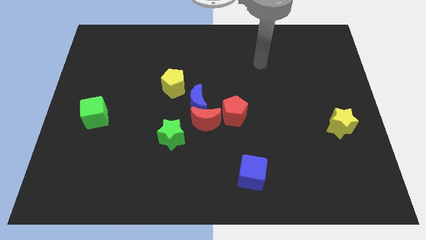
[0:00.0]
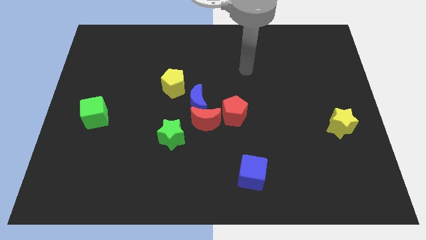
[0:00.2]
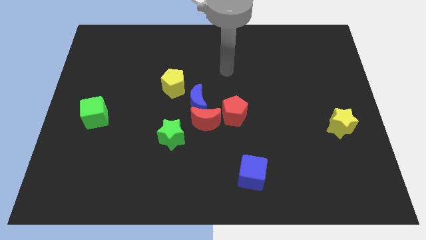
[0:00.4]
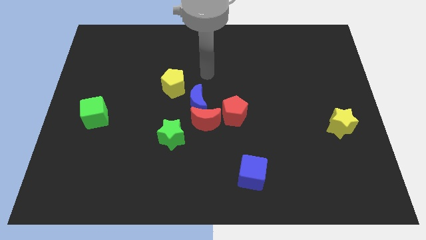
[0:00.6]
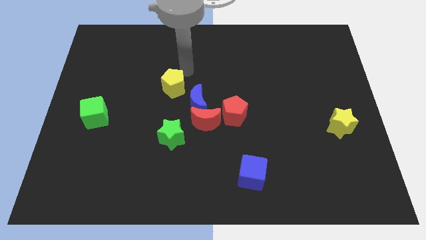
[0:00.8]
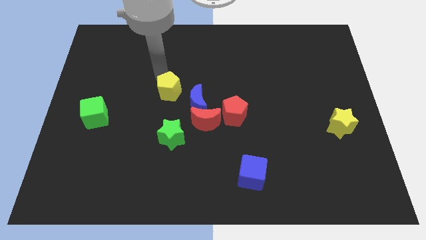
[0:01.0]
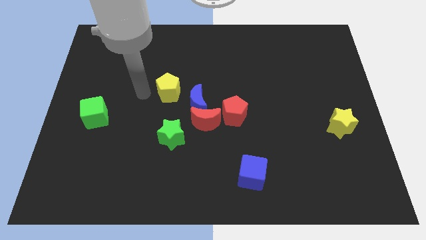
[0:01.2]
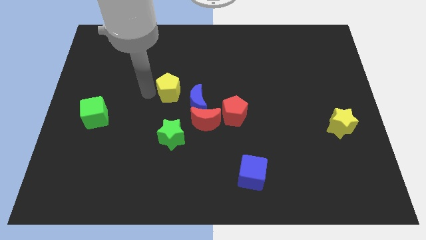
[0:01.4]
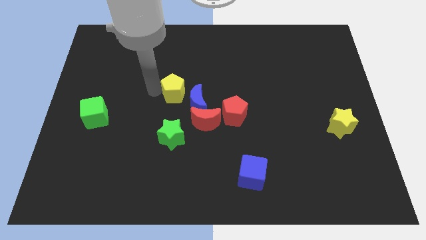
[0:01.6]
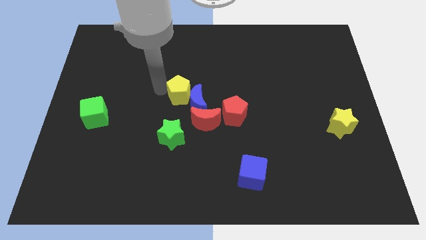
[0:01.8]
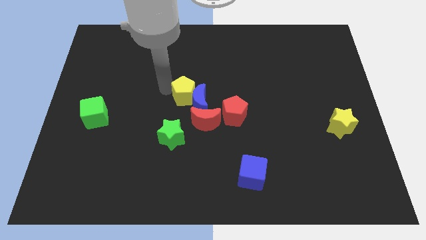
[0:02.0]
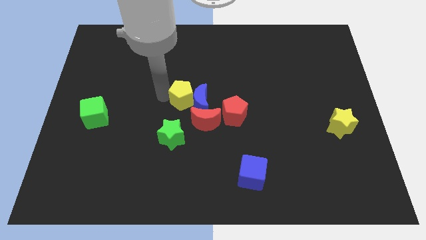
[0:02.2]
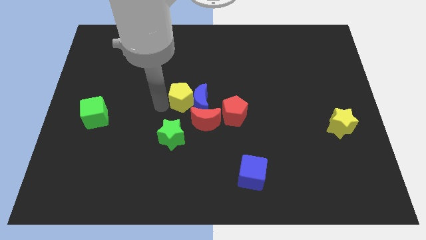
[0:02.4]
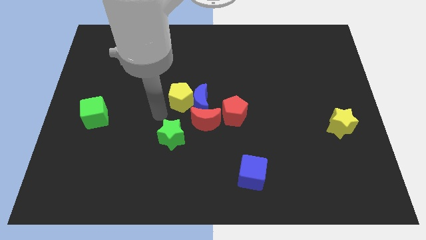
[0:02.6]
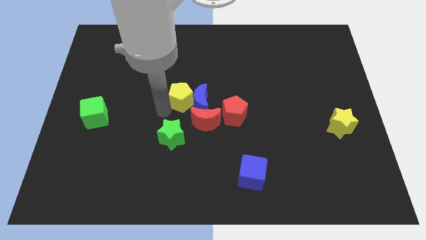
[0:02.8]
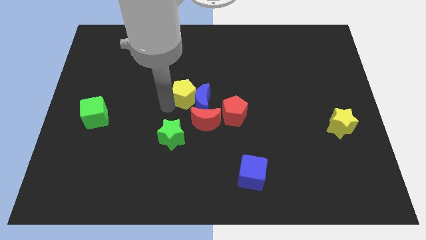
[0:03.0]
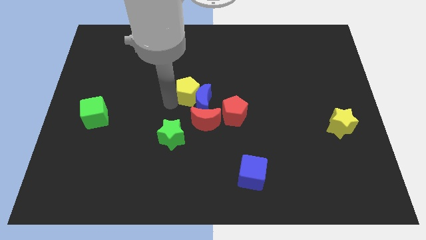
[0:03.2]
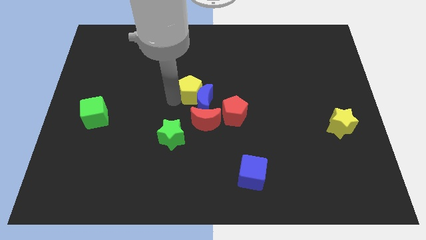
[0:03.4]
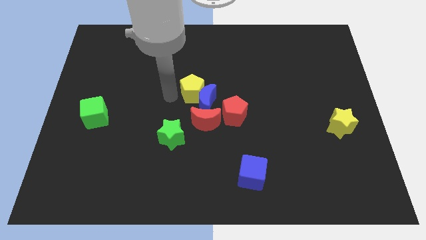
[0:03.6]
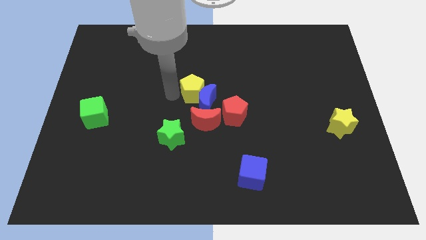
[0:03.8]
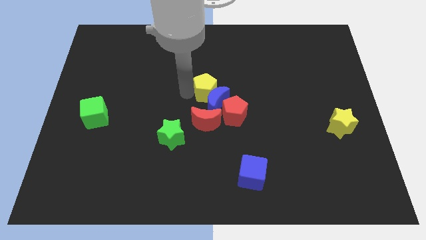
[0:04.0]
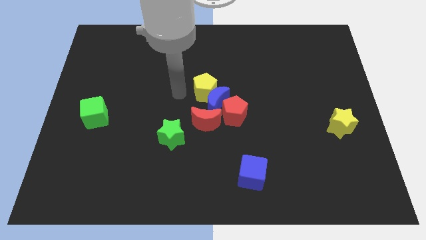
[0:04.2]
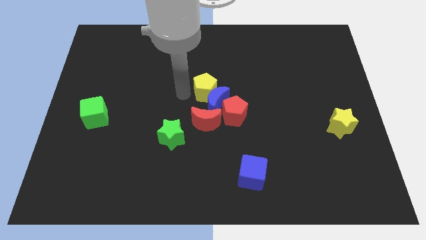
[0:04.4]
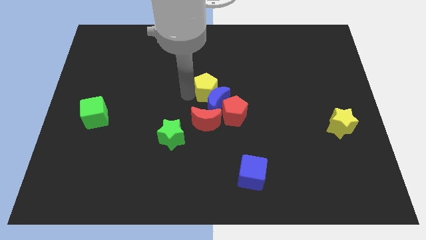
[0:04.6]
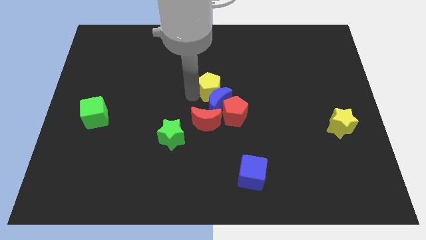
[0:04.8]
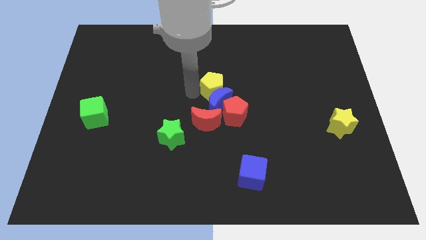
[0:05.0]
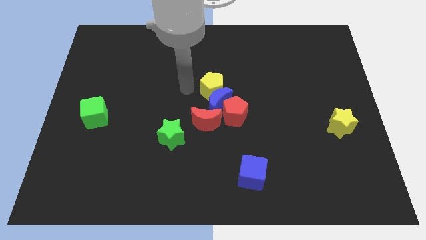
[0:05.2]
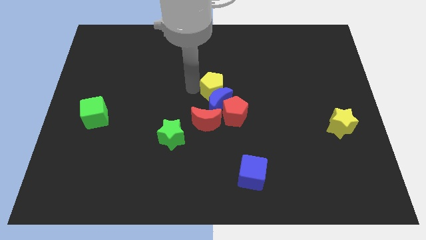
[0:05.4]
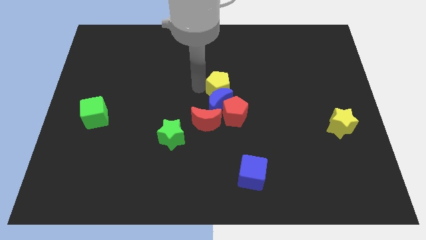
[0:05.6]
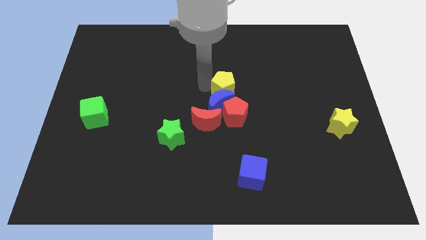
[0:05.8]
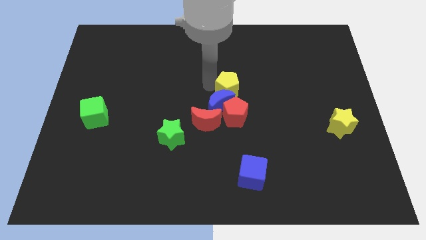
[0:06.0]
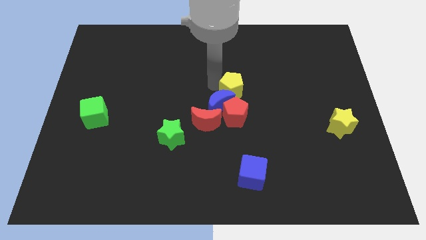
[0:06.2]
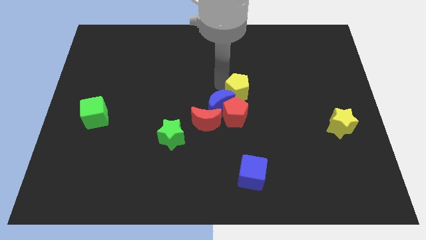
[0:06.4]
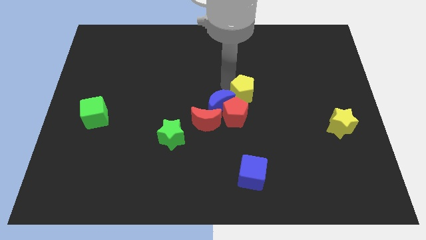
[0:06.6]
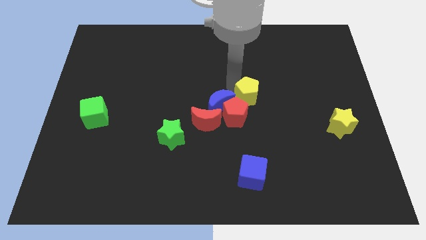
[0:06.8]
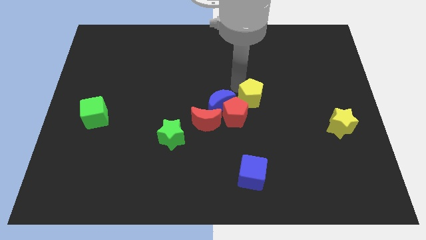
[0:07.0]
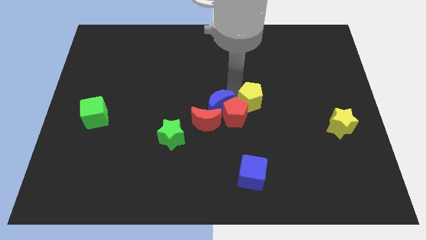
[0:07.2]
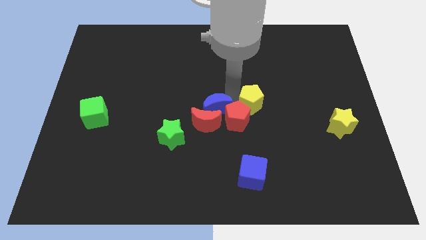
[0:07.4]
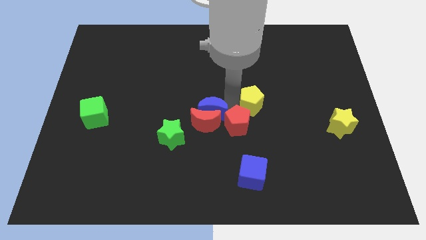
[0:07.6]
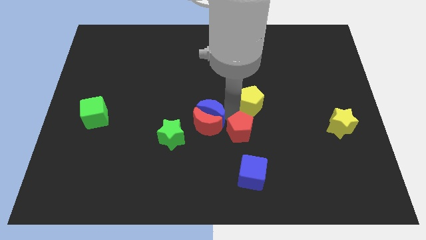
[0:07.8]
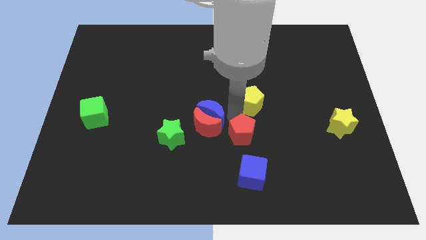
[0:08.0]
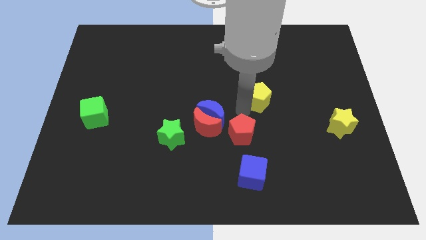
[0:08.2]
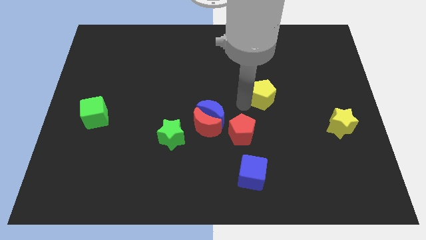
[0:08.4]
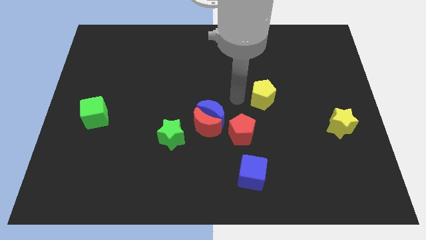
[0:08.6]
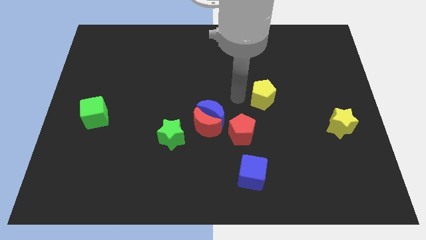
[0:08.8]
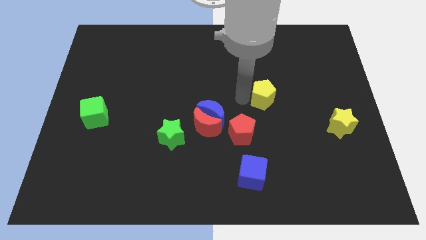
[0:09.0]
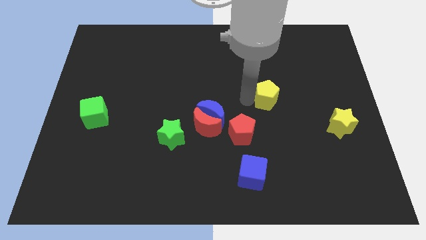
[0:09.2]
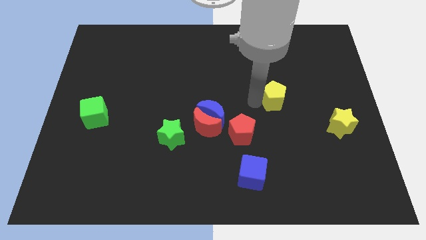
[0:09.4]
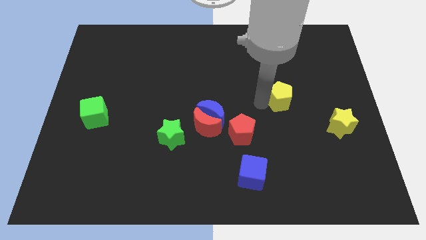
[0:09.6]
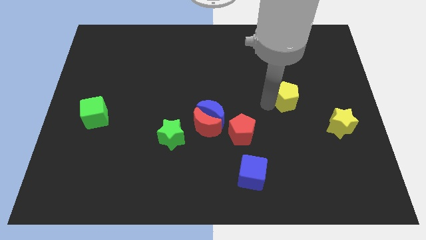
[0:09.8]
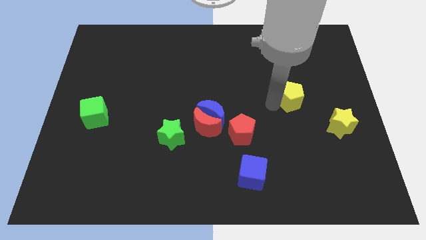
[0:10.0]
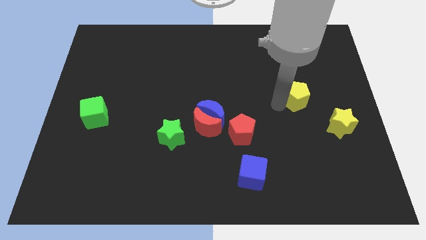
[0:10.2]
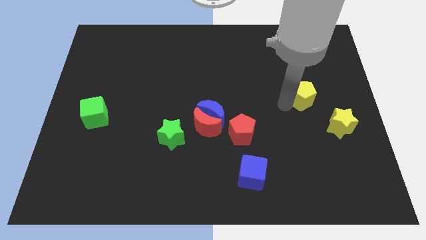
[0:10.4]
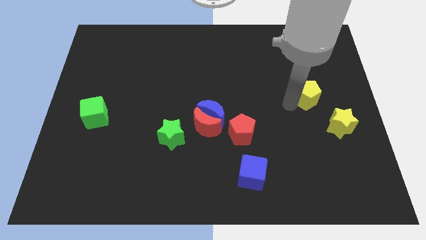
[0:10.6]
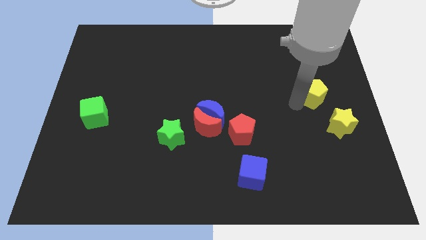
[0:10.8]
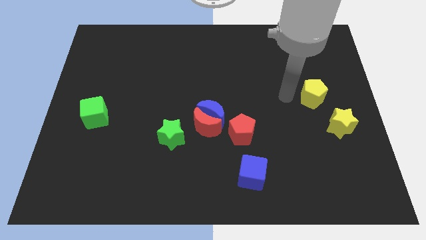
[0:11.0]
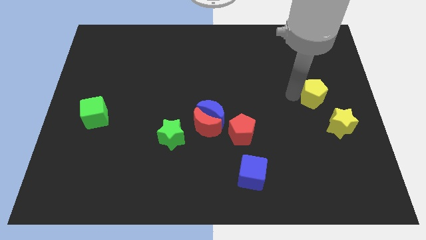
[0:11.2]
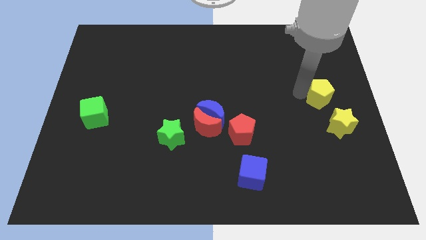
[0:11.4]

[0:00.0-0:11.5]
push the yellow pentagon to the center right

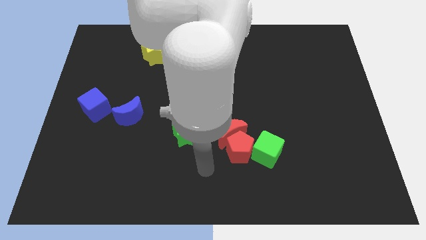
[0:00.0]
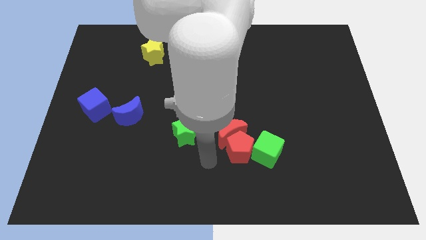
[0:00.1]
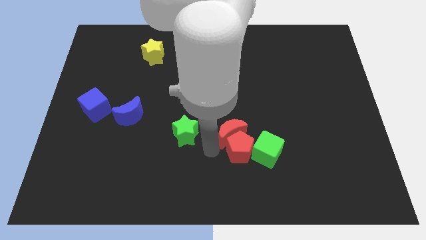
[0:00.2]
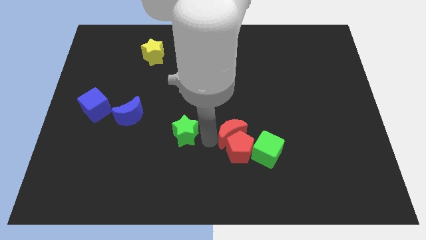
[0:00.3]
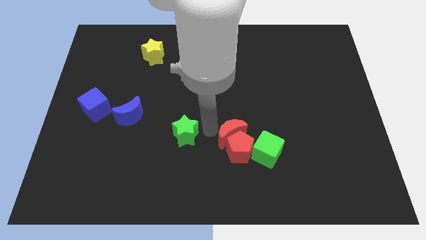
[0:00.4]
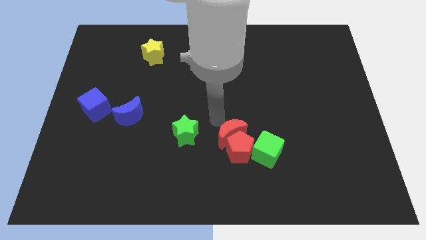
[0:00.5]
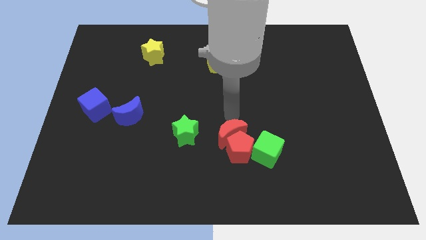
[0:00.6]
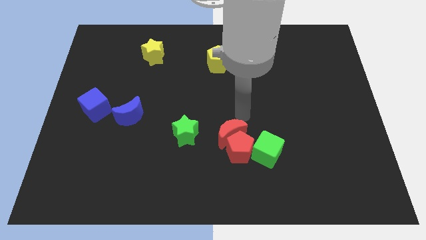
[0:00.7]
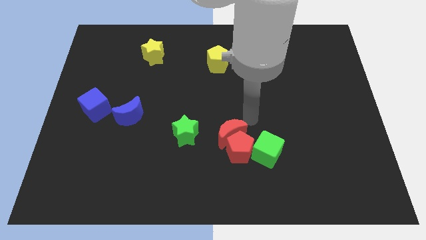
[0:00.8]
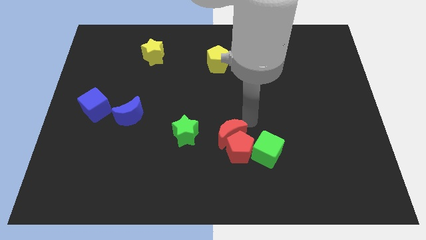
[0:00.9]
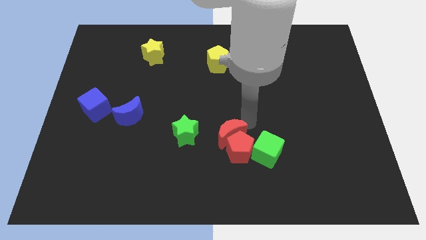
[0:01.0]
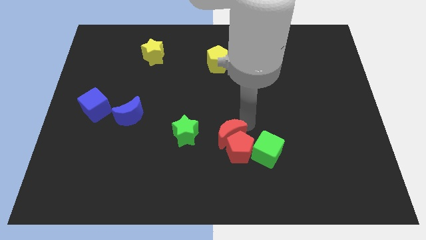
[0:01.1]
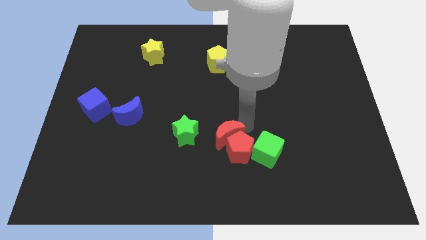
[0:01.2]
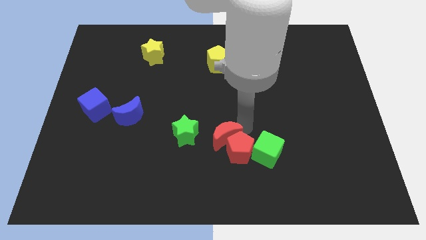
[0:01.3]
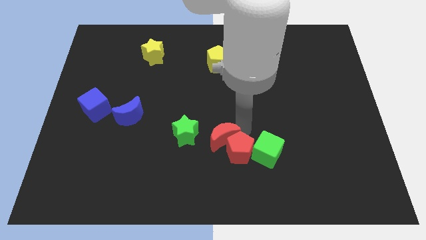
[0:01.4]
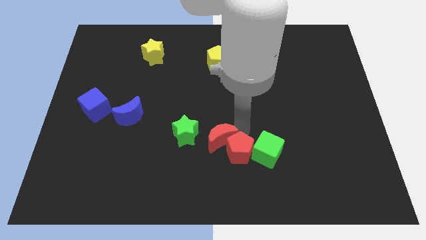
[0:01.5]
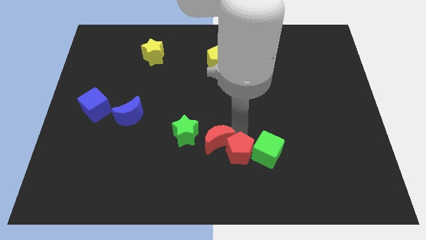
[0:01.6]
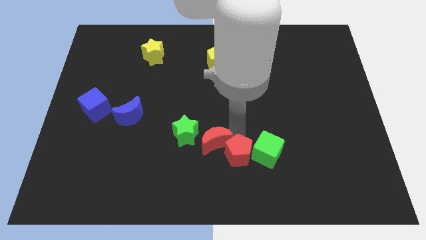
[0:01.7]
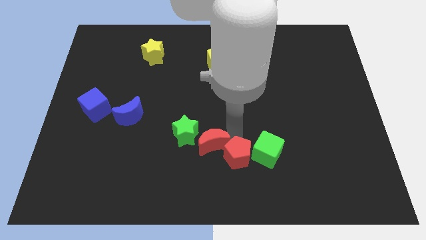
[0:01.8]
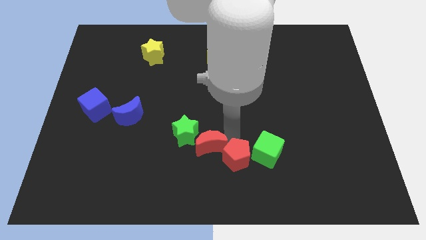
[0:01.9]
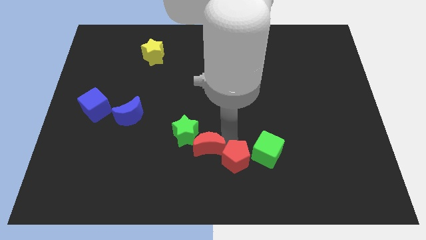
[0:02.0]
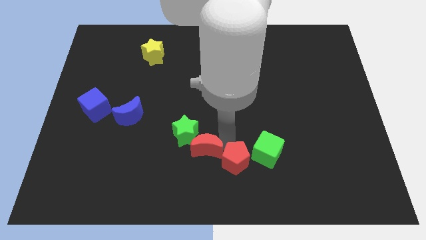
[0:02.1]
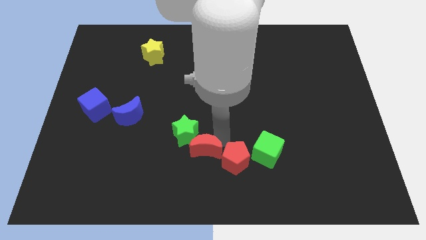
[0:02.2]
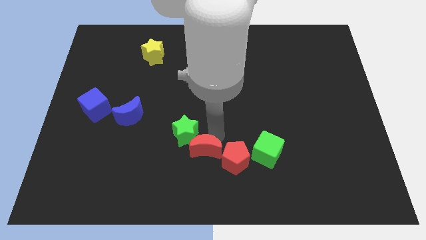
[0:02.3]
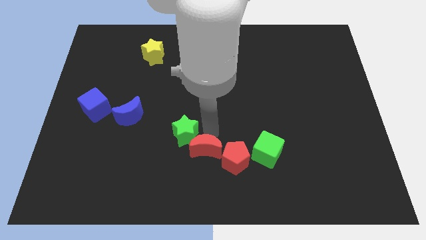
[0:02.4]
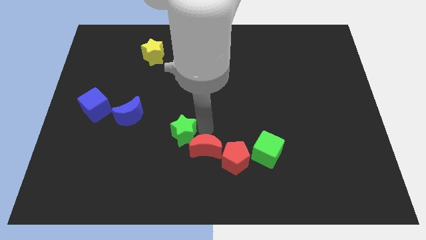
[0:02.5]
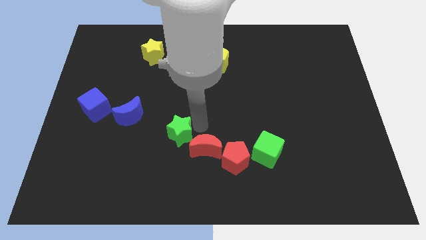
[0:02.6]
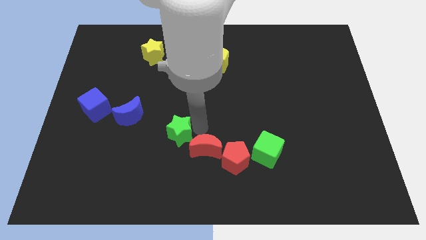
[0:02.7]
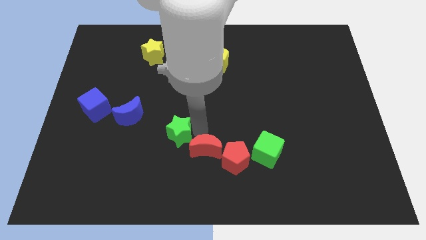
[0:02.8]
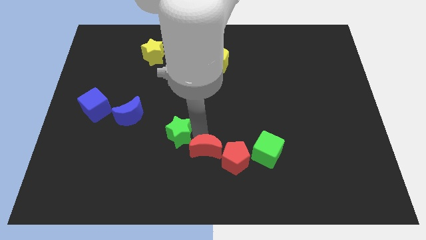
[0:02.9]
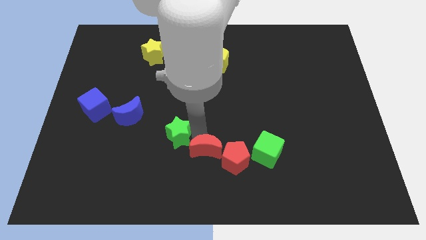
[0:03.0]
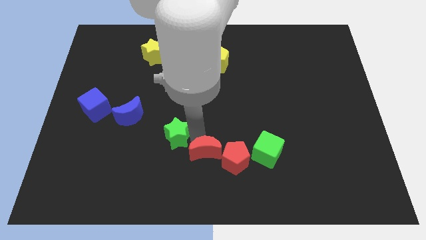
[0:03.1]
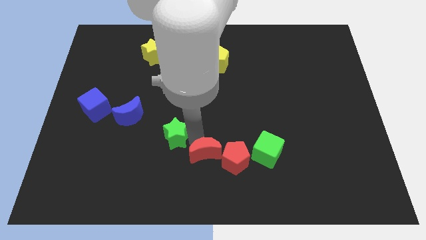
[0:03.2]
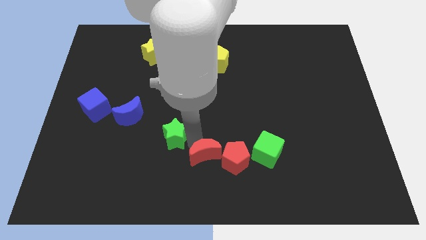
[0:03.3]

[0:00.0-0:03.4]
slide the red moon to the bottom side
